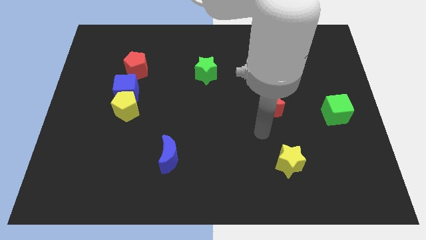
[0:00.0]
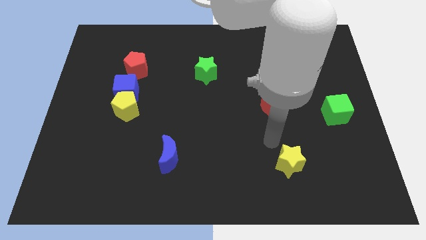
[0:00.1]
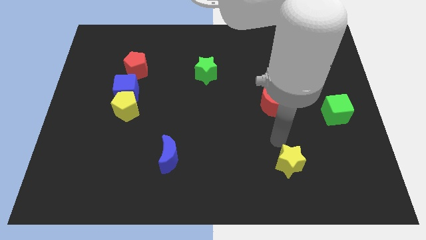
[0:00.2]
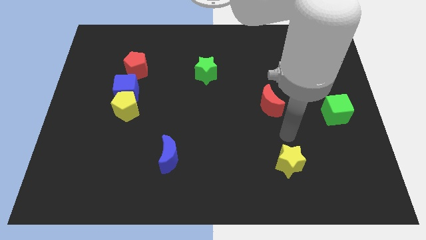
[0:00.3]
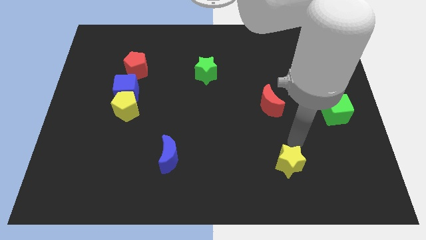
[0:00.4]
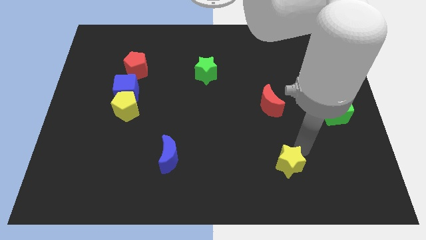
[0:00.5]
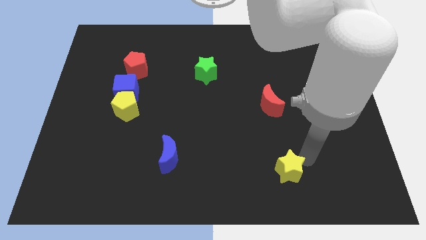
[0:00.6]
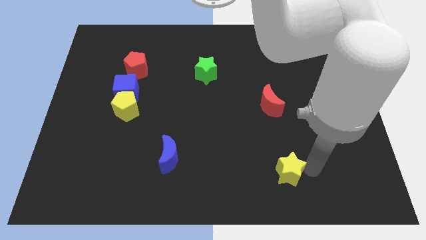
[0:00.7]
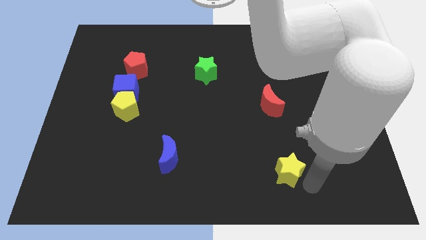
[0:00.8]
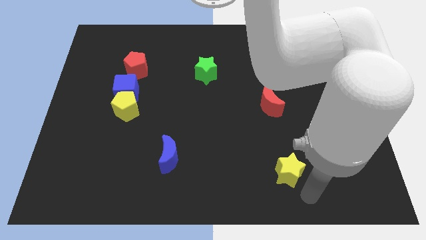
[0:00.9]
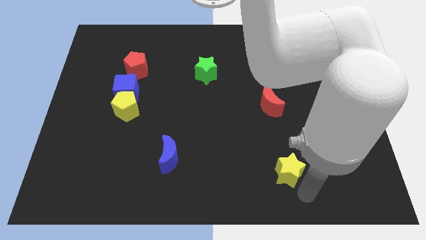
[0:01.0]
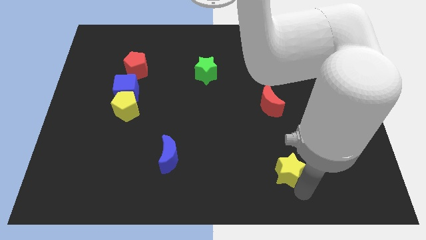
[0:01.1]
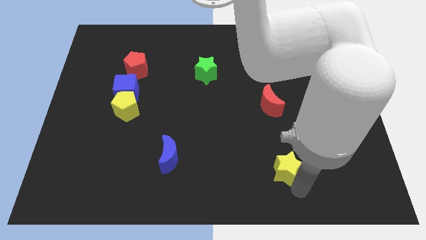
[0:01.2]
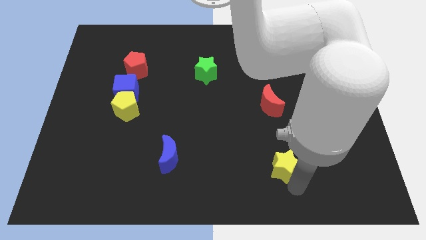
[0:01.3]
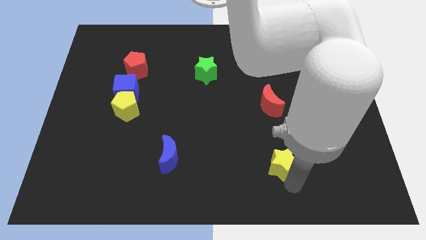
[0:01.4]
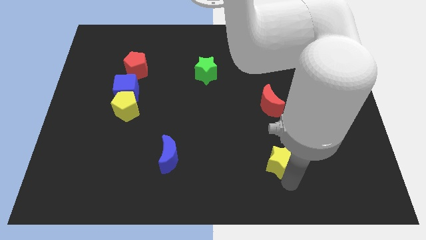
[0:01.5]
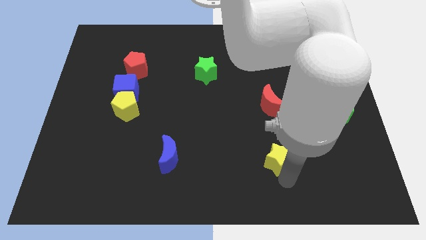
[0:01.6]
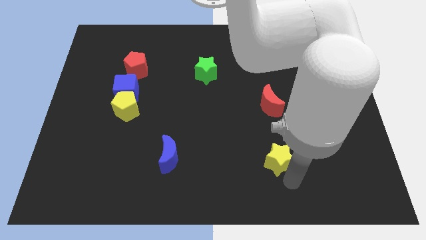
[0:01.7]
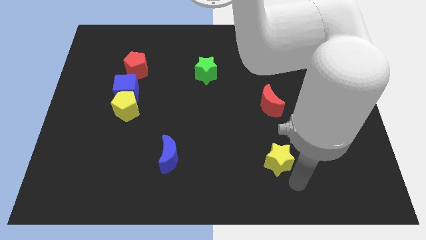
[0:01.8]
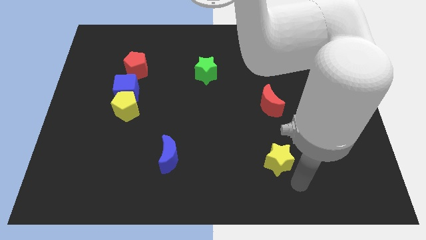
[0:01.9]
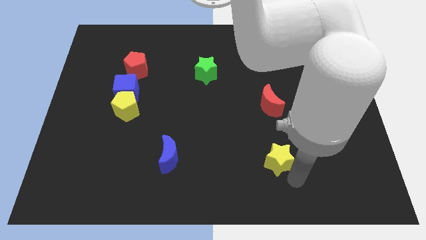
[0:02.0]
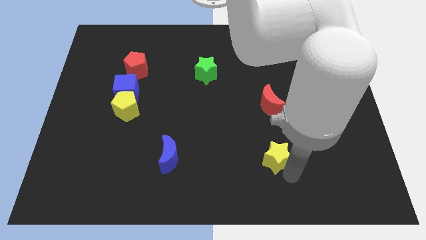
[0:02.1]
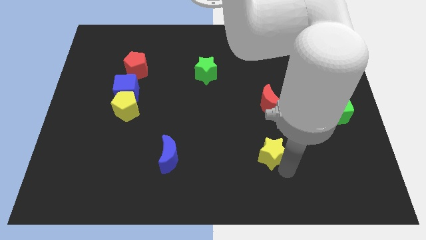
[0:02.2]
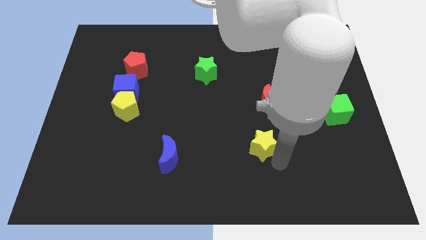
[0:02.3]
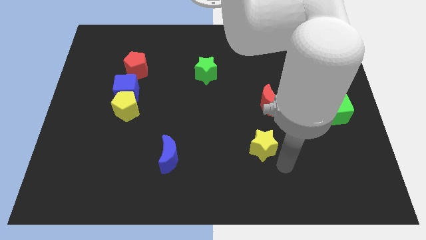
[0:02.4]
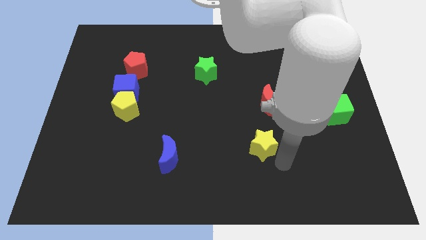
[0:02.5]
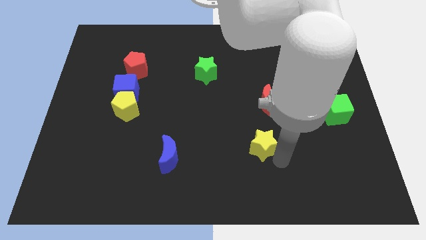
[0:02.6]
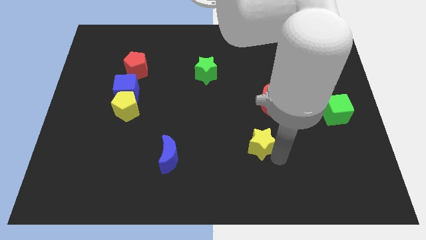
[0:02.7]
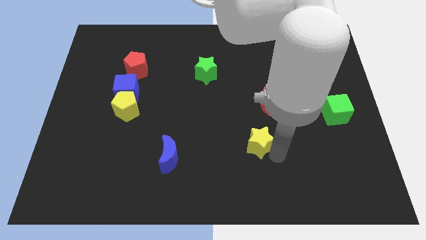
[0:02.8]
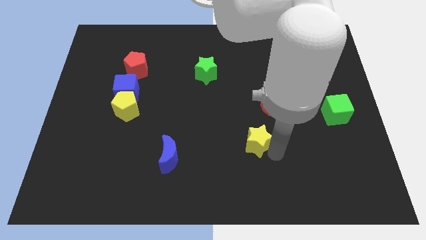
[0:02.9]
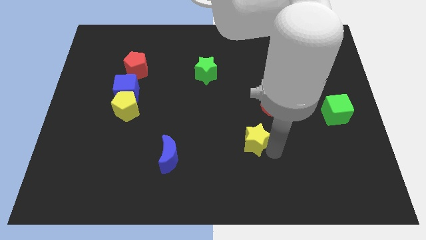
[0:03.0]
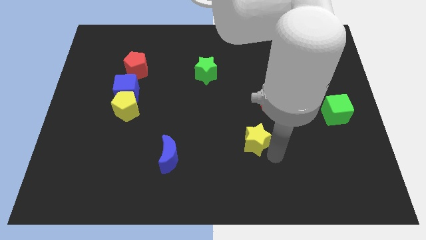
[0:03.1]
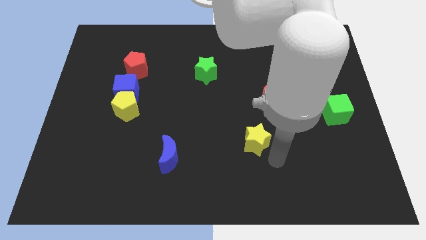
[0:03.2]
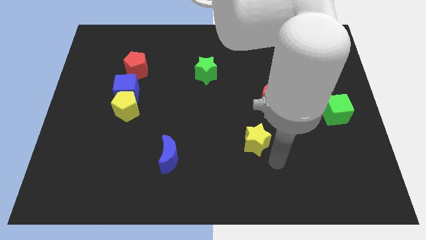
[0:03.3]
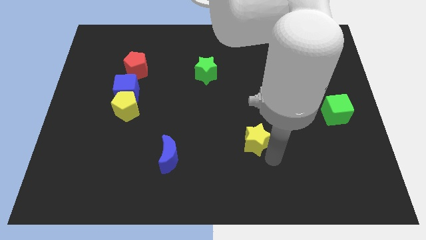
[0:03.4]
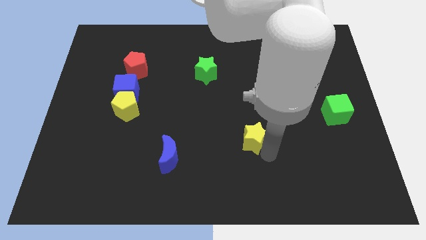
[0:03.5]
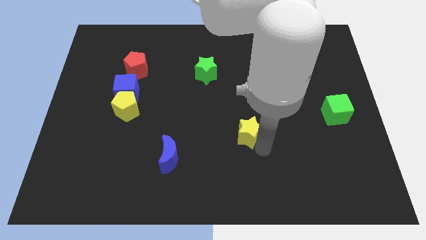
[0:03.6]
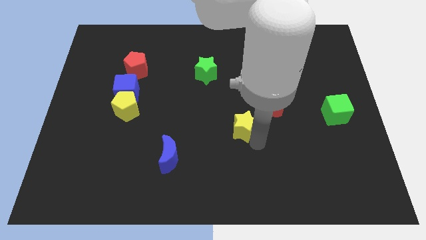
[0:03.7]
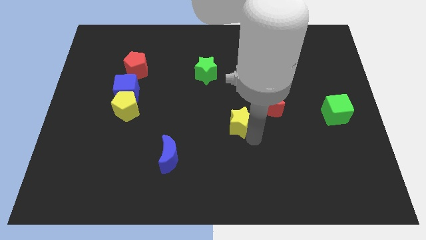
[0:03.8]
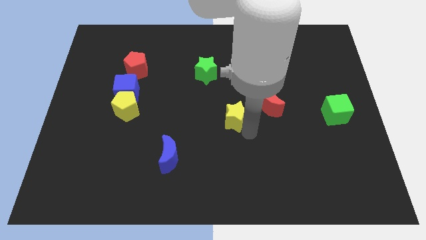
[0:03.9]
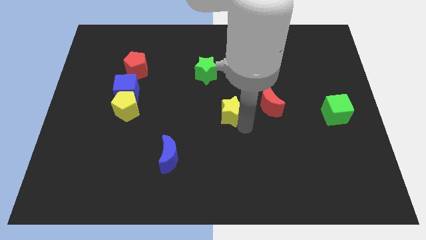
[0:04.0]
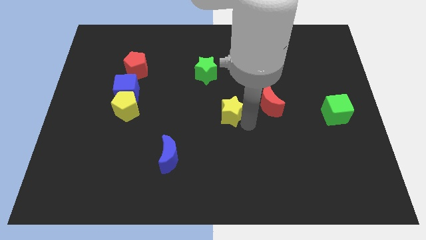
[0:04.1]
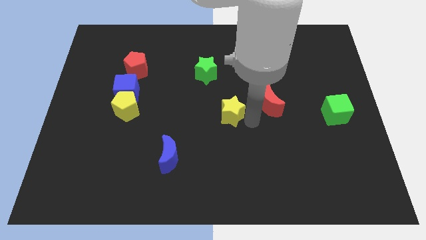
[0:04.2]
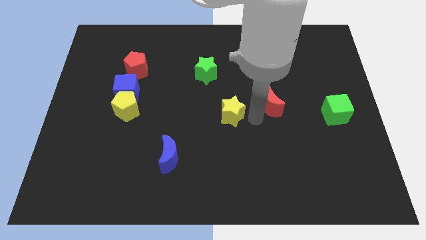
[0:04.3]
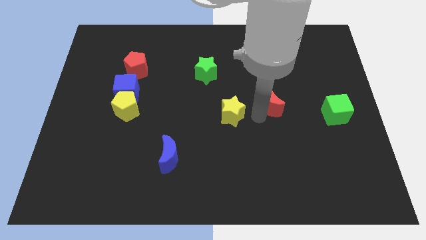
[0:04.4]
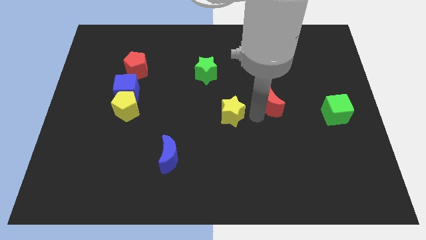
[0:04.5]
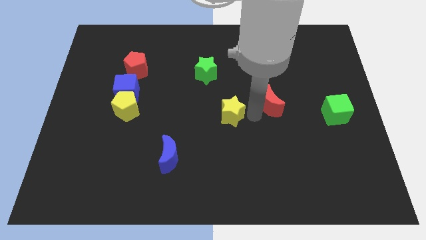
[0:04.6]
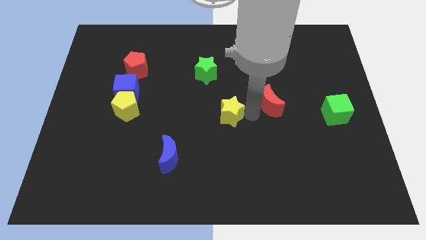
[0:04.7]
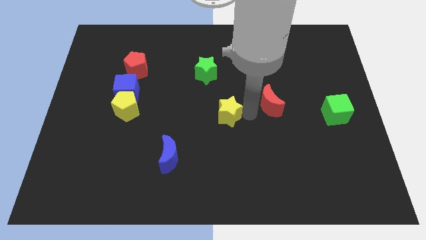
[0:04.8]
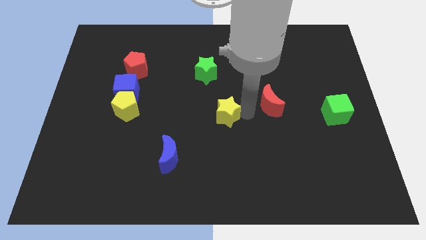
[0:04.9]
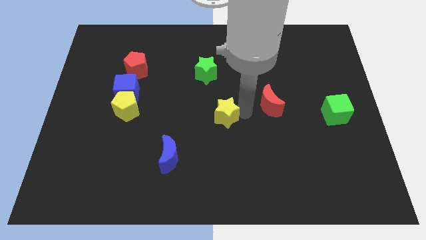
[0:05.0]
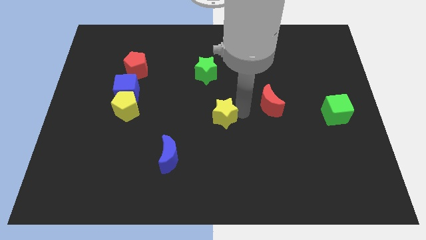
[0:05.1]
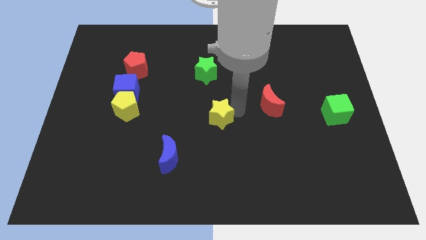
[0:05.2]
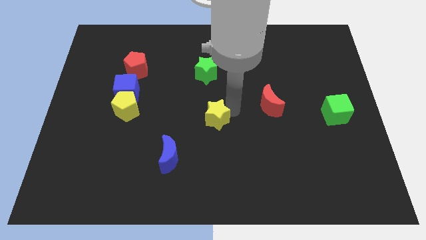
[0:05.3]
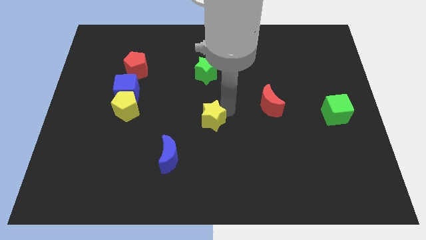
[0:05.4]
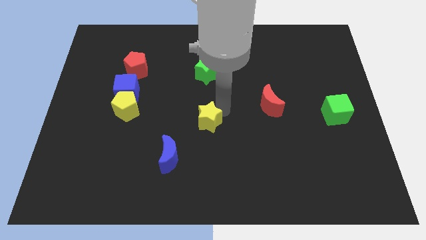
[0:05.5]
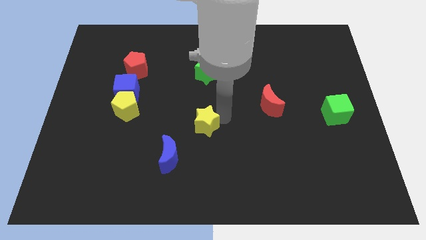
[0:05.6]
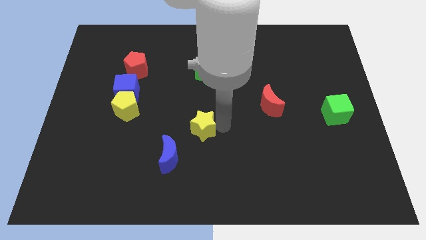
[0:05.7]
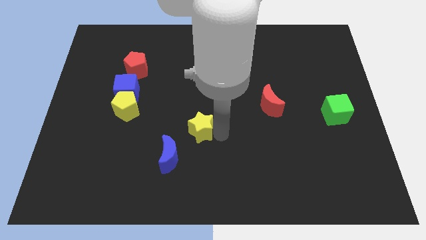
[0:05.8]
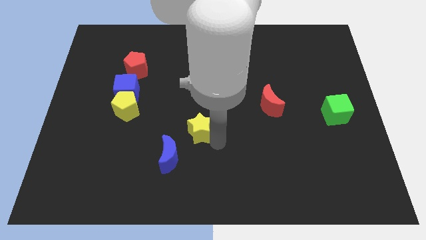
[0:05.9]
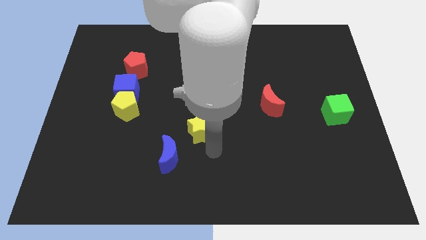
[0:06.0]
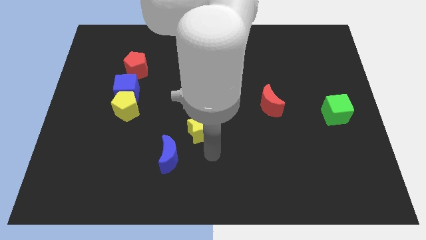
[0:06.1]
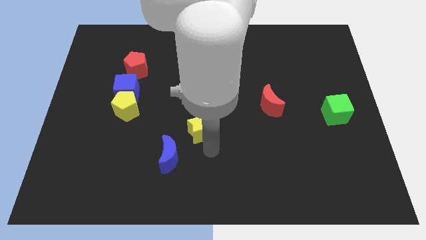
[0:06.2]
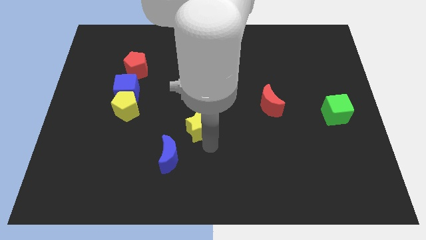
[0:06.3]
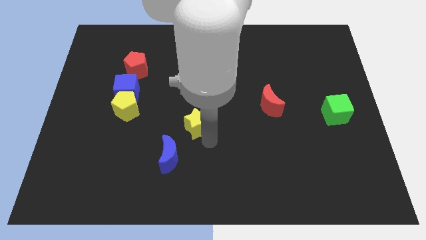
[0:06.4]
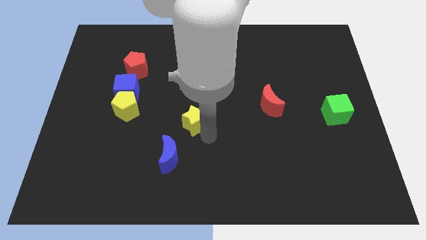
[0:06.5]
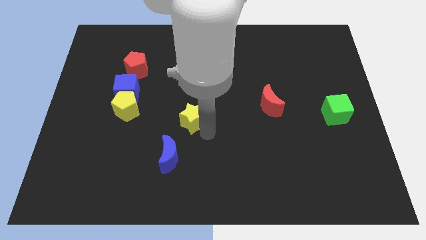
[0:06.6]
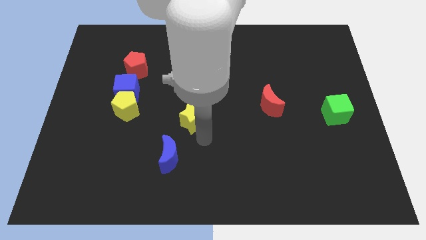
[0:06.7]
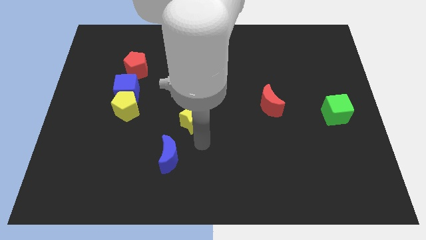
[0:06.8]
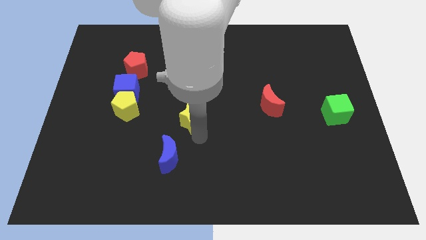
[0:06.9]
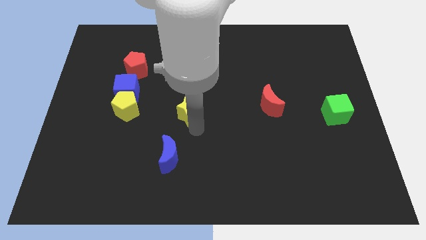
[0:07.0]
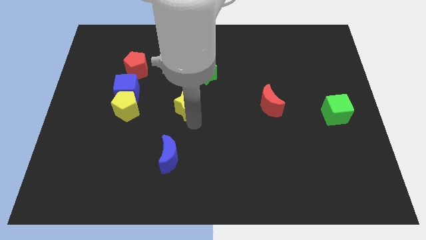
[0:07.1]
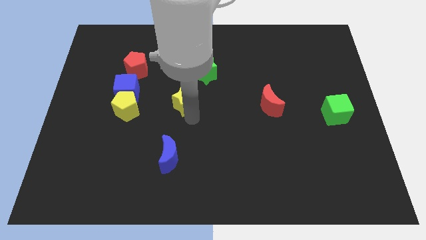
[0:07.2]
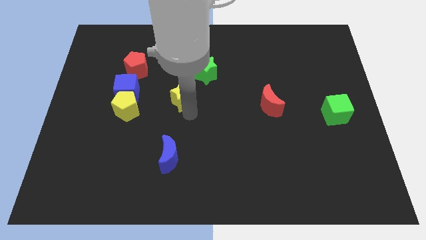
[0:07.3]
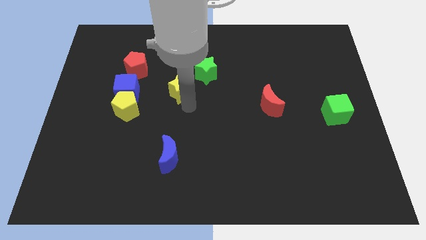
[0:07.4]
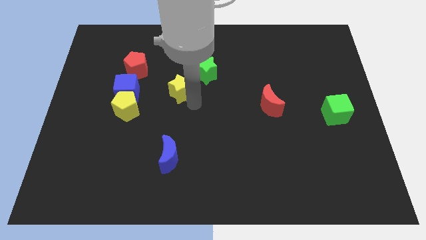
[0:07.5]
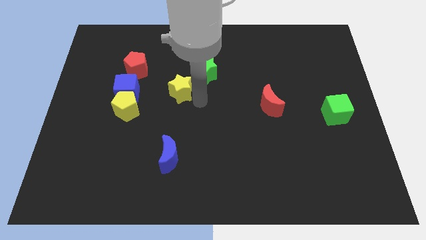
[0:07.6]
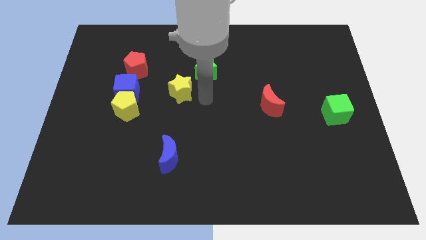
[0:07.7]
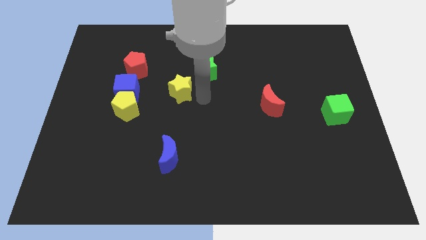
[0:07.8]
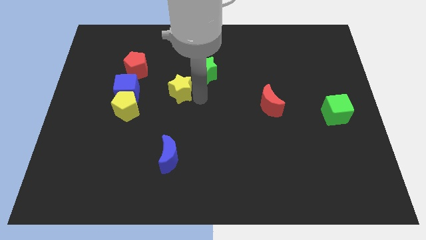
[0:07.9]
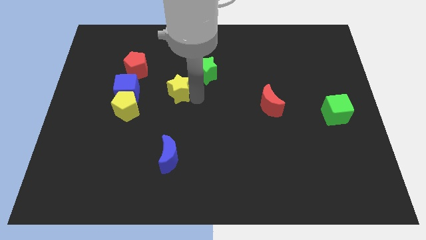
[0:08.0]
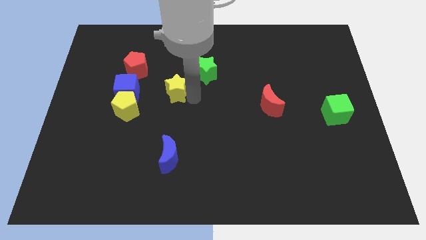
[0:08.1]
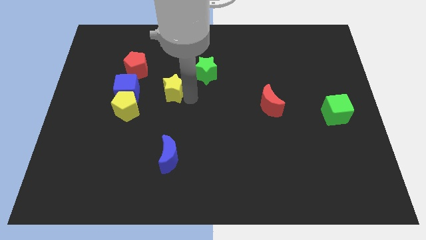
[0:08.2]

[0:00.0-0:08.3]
push the yellow star to the bottom right side of the red pentagon
